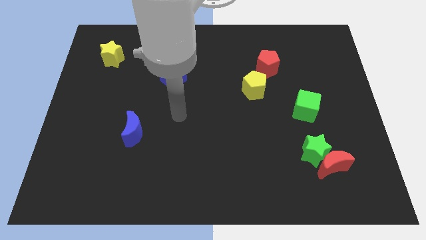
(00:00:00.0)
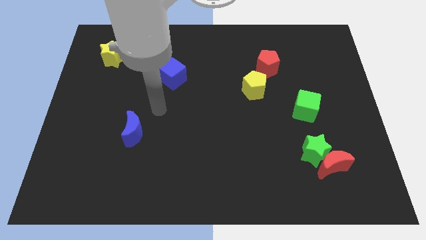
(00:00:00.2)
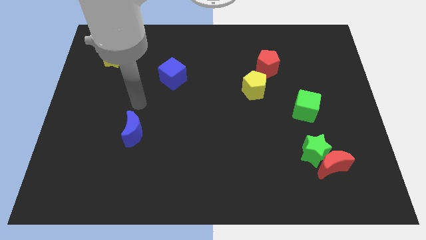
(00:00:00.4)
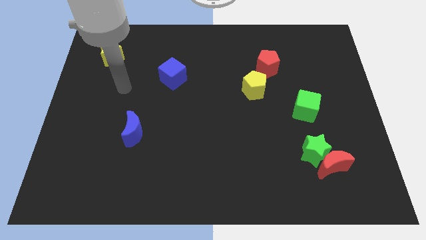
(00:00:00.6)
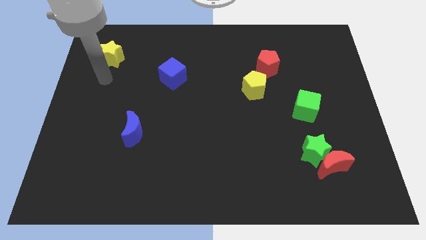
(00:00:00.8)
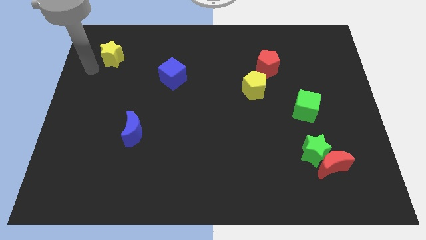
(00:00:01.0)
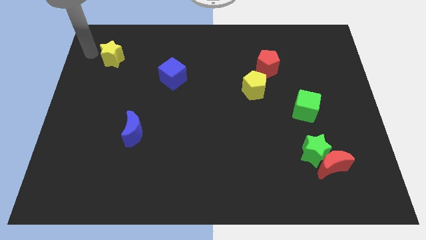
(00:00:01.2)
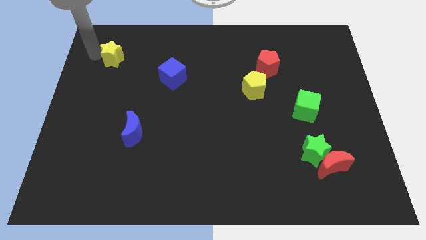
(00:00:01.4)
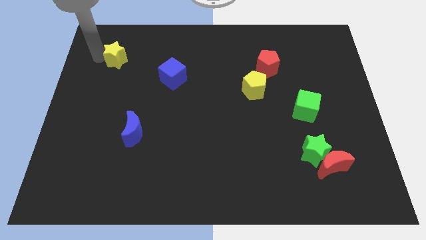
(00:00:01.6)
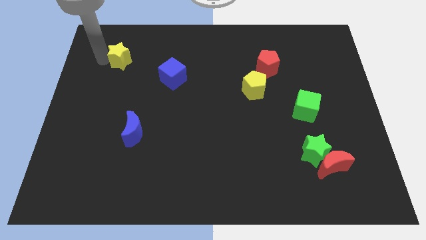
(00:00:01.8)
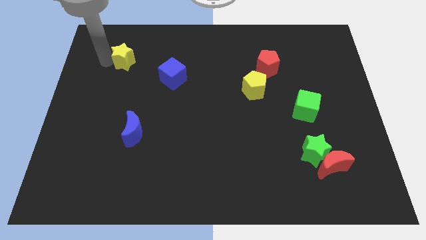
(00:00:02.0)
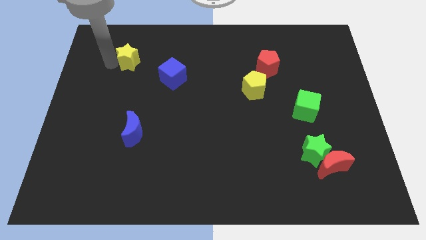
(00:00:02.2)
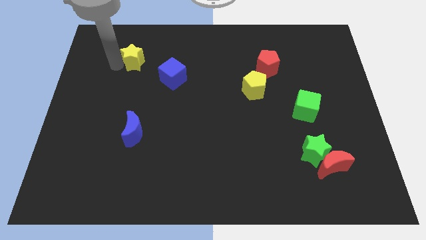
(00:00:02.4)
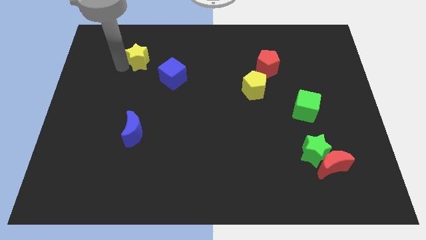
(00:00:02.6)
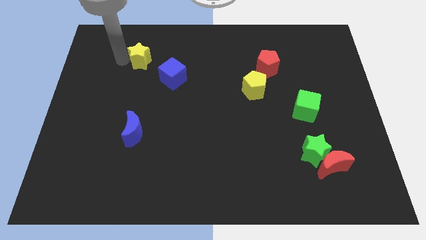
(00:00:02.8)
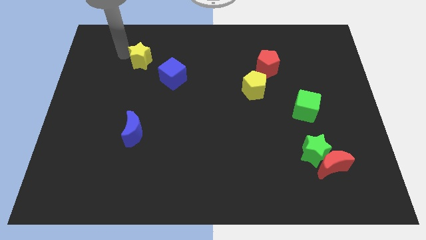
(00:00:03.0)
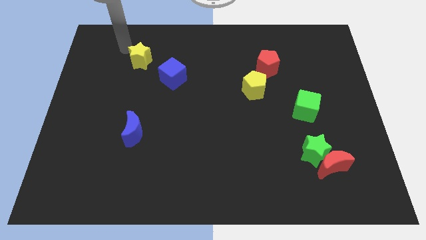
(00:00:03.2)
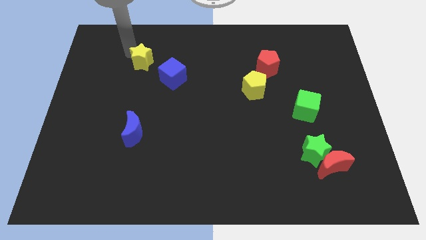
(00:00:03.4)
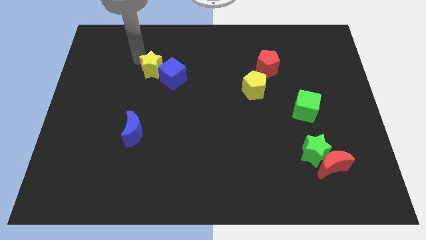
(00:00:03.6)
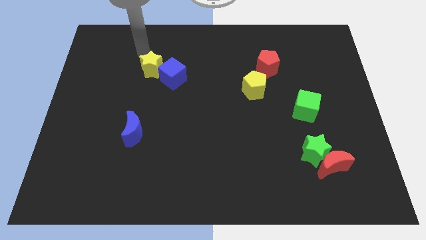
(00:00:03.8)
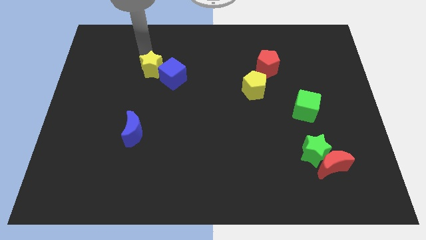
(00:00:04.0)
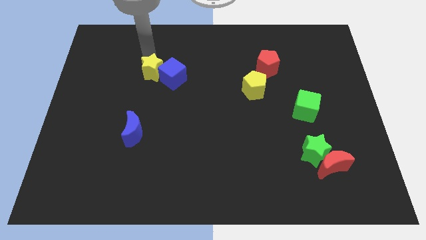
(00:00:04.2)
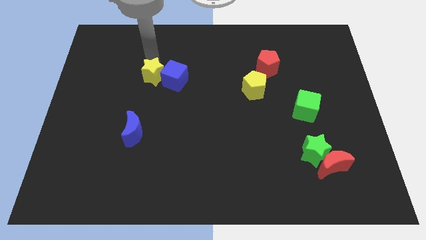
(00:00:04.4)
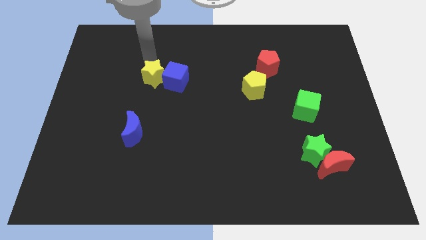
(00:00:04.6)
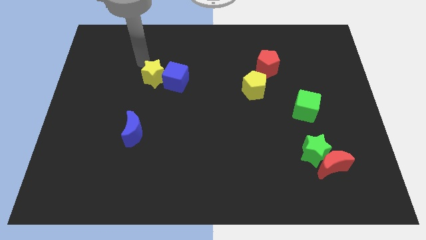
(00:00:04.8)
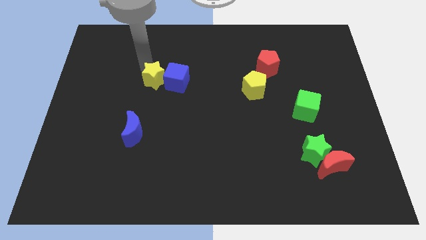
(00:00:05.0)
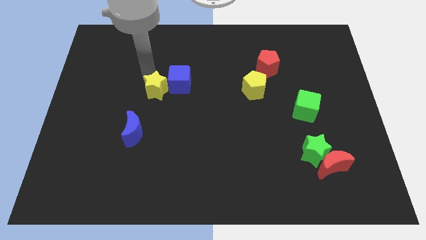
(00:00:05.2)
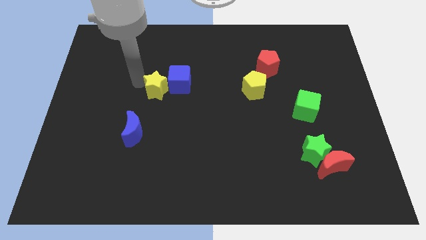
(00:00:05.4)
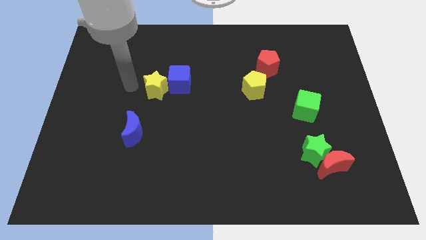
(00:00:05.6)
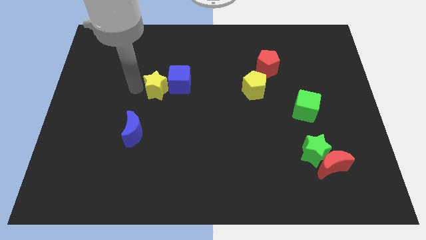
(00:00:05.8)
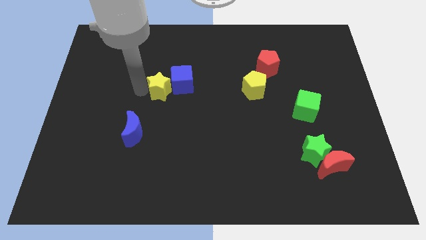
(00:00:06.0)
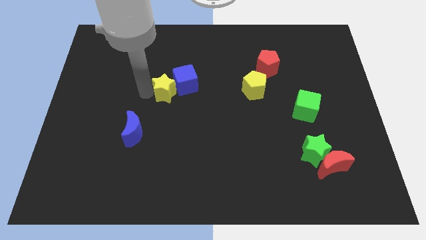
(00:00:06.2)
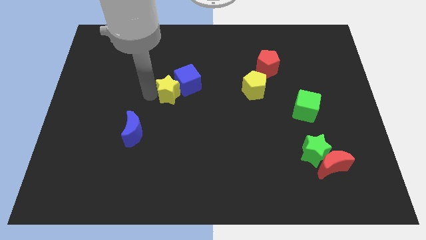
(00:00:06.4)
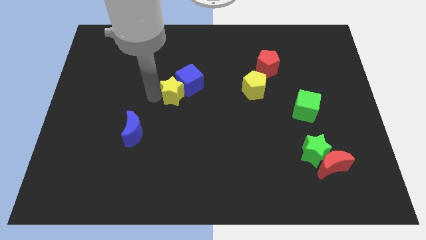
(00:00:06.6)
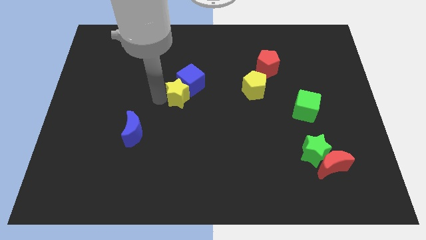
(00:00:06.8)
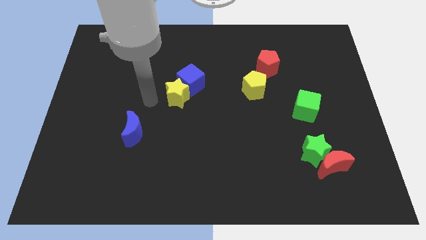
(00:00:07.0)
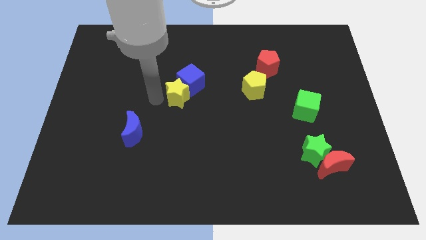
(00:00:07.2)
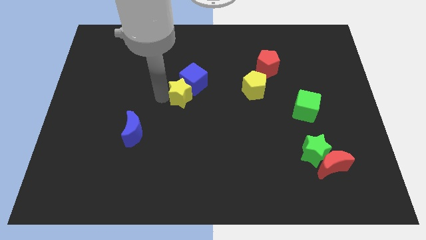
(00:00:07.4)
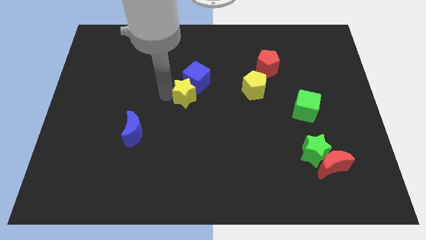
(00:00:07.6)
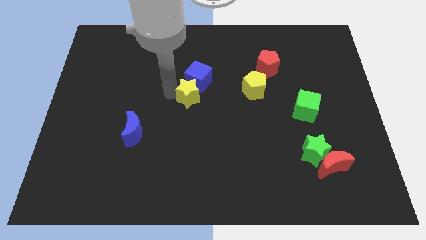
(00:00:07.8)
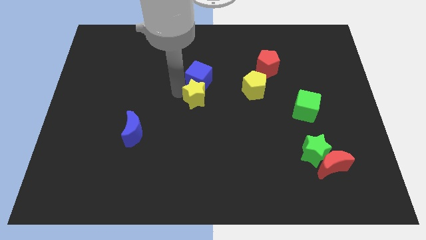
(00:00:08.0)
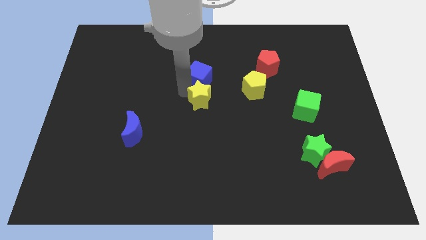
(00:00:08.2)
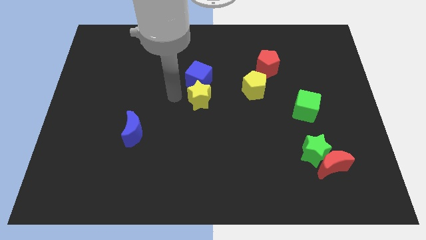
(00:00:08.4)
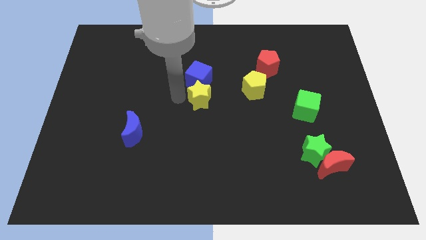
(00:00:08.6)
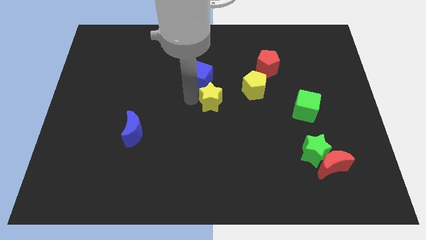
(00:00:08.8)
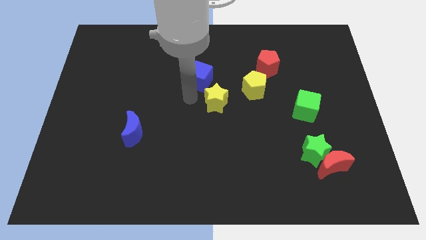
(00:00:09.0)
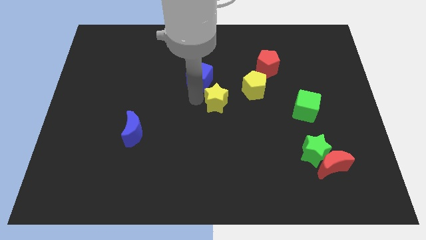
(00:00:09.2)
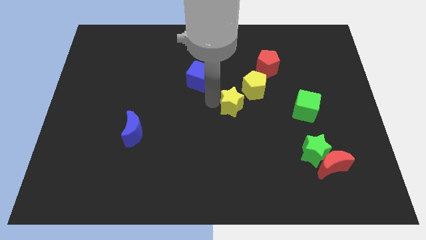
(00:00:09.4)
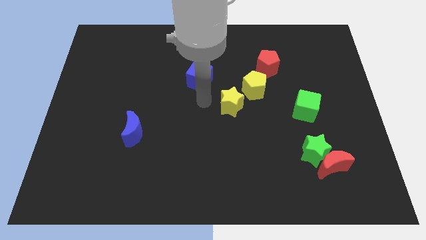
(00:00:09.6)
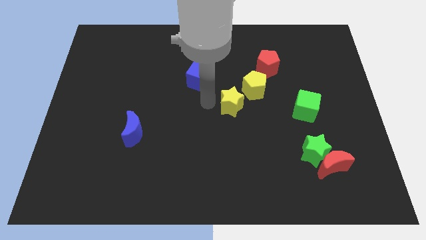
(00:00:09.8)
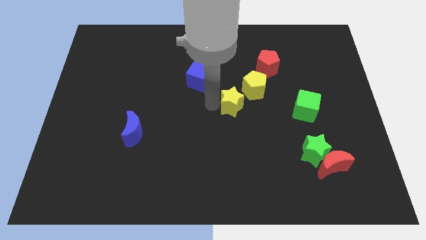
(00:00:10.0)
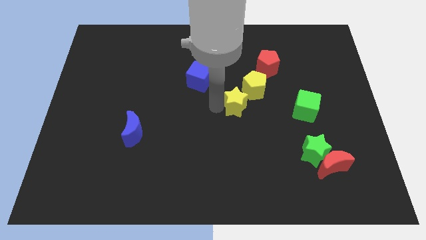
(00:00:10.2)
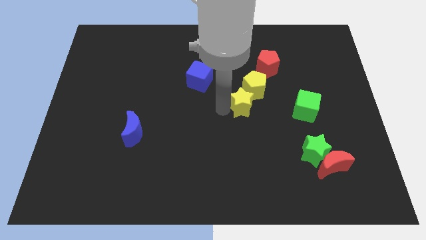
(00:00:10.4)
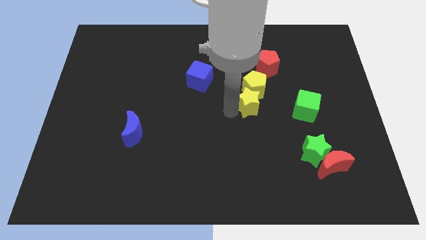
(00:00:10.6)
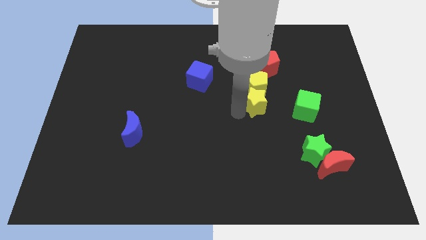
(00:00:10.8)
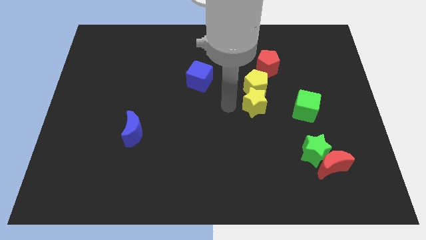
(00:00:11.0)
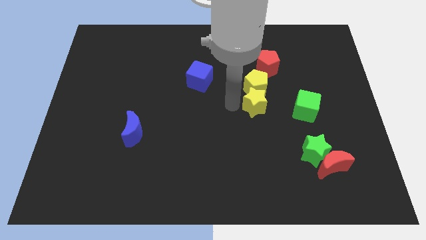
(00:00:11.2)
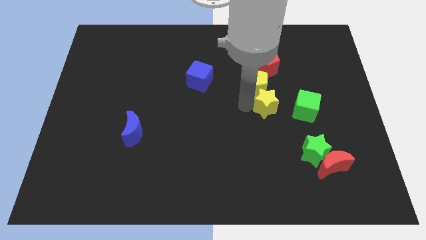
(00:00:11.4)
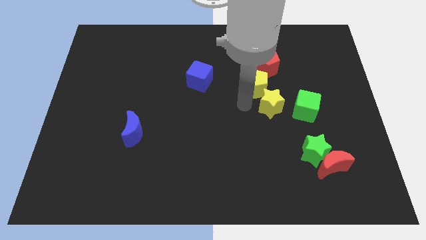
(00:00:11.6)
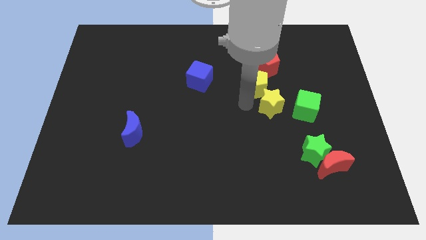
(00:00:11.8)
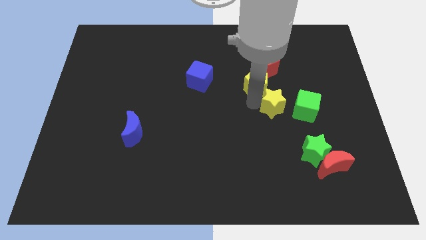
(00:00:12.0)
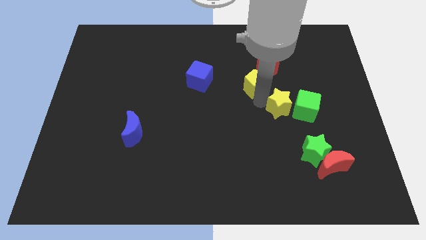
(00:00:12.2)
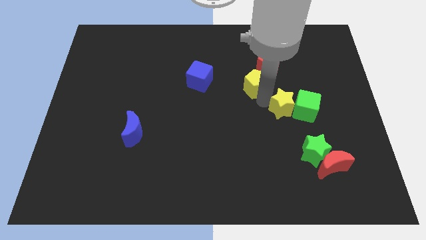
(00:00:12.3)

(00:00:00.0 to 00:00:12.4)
put the yellow star towards the green cube
